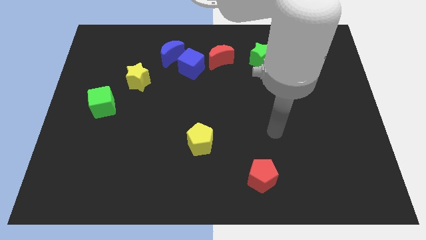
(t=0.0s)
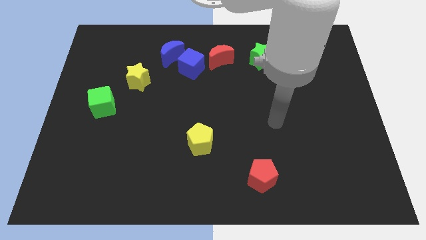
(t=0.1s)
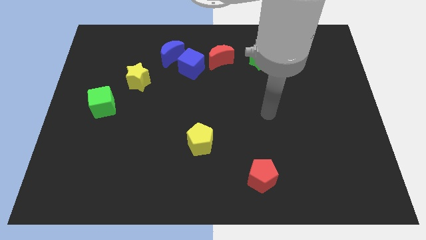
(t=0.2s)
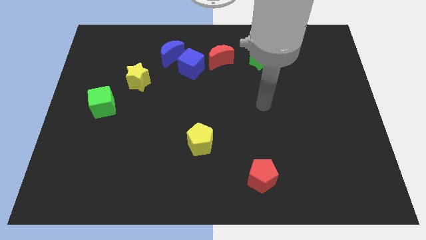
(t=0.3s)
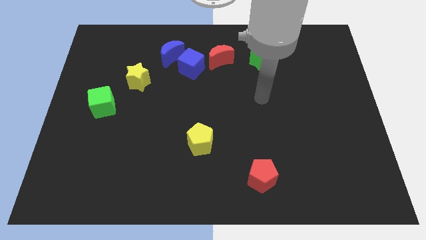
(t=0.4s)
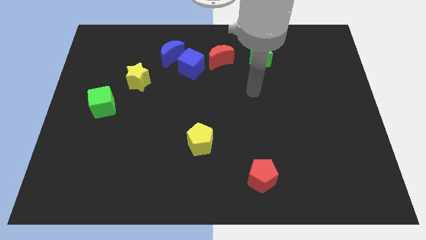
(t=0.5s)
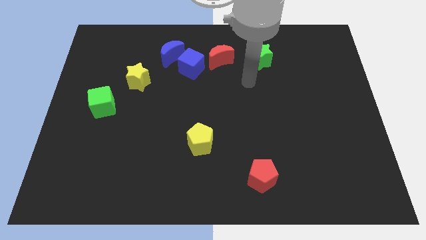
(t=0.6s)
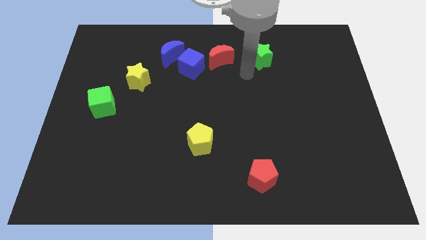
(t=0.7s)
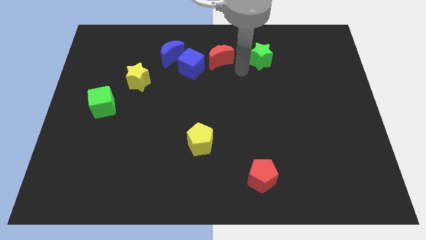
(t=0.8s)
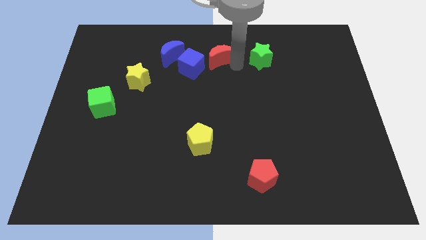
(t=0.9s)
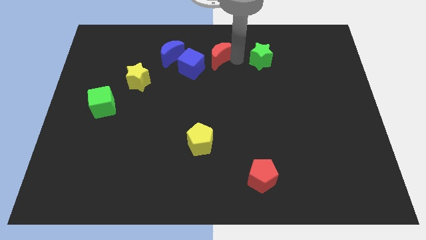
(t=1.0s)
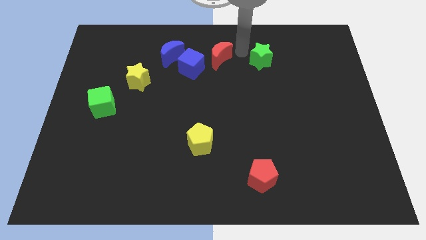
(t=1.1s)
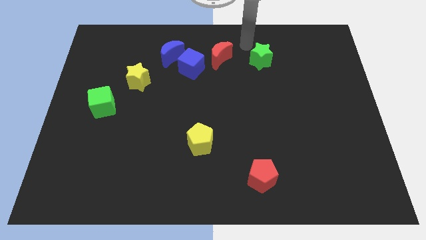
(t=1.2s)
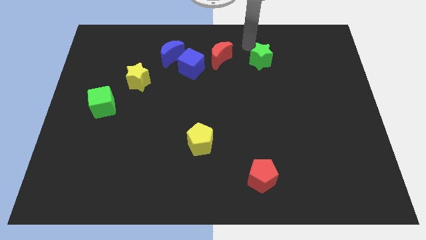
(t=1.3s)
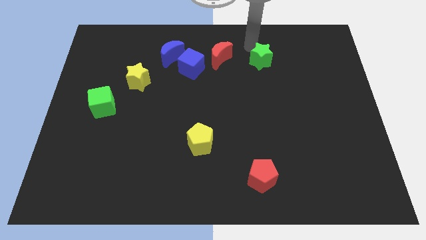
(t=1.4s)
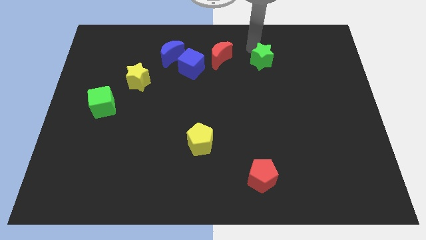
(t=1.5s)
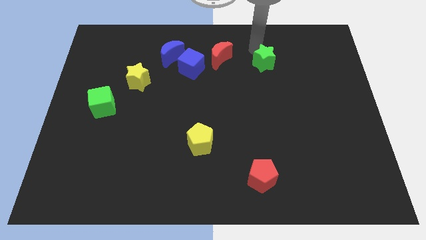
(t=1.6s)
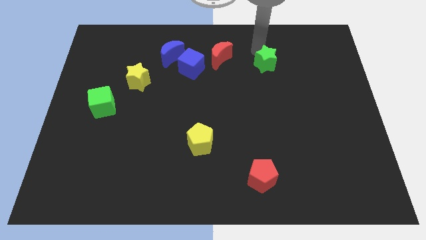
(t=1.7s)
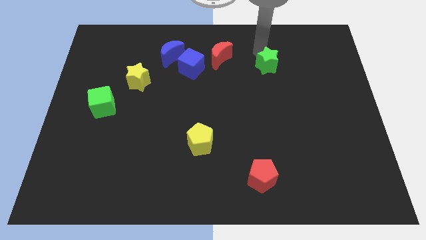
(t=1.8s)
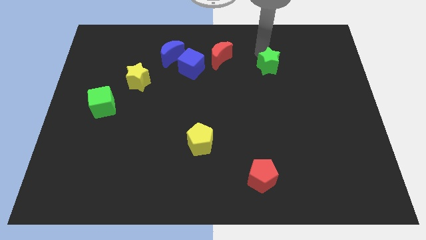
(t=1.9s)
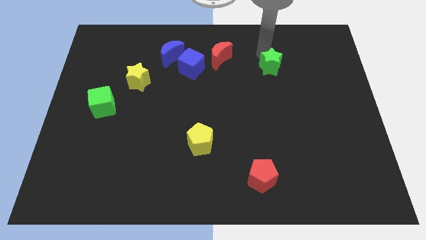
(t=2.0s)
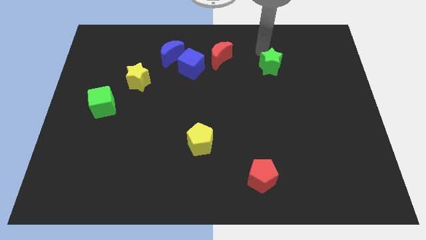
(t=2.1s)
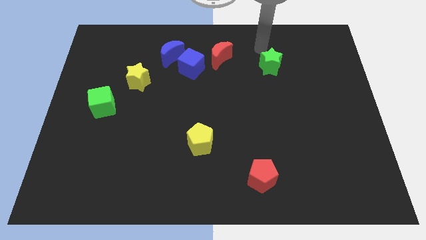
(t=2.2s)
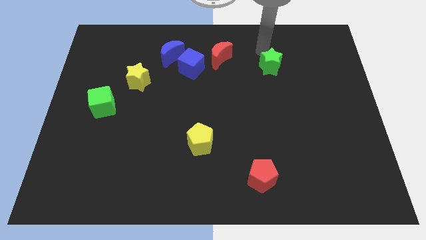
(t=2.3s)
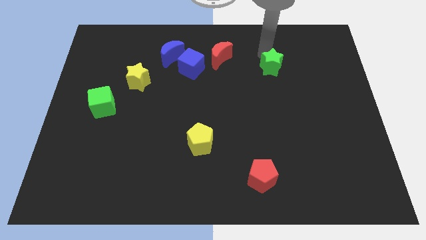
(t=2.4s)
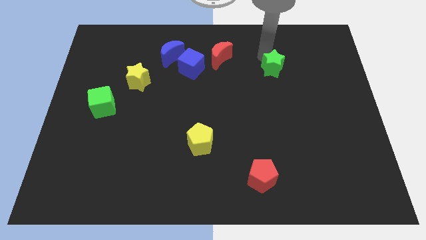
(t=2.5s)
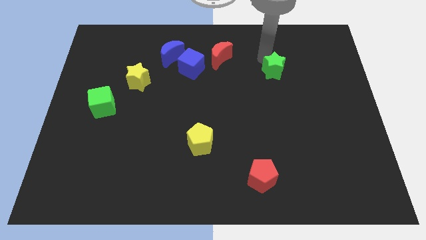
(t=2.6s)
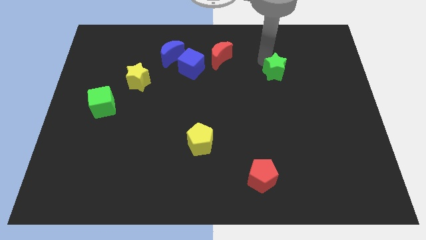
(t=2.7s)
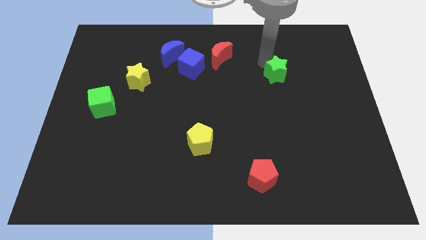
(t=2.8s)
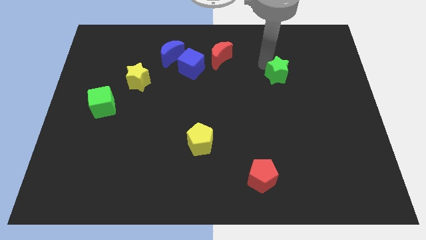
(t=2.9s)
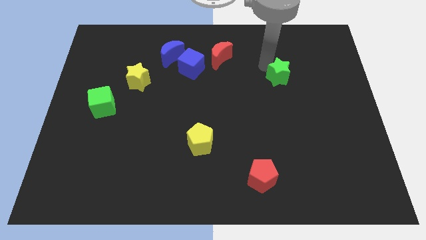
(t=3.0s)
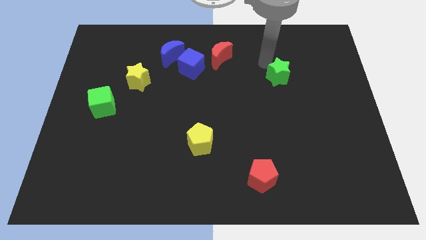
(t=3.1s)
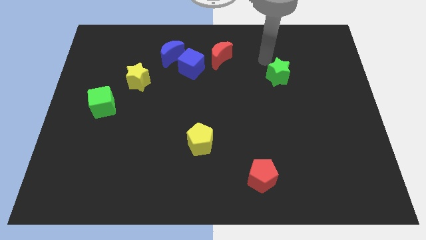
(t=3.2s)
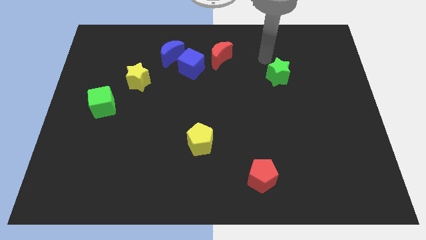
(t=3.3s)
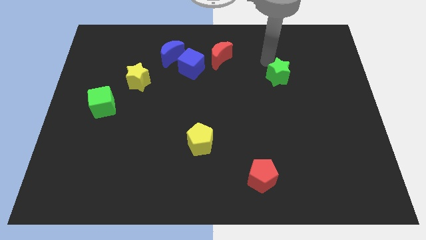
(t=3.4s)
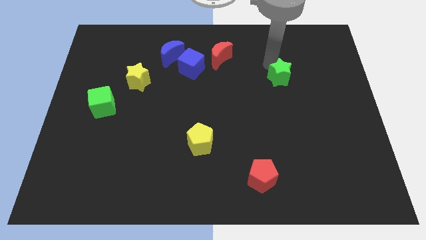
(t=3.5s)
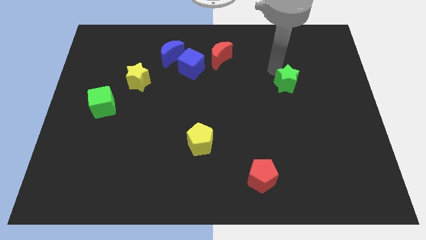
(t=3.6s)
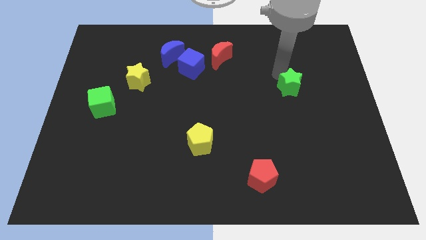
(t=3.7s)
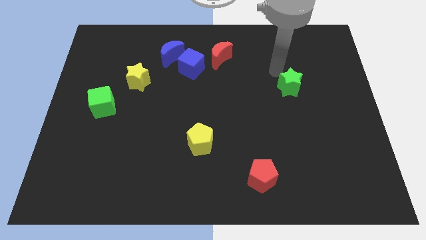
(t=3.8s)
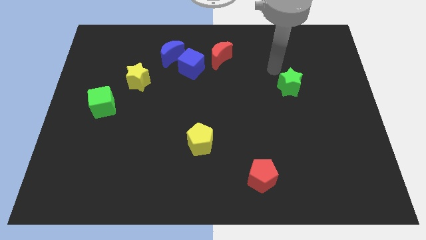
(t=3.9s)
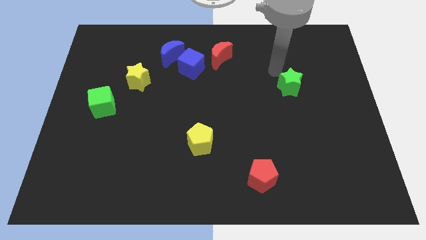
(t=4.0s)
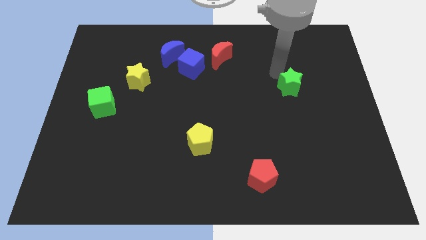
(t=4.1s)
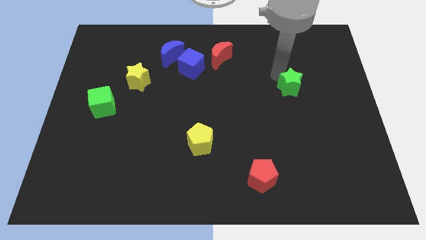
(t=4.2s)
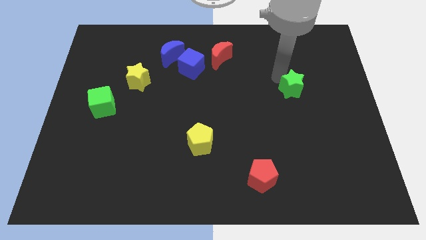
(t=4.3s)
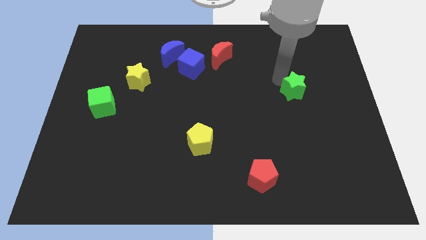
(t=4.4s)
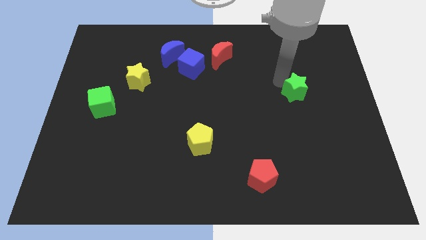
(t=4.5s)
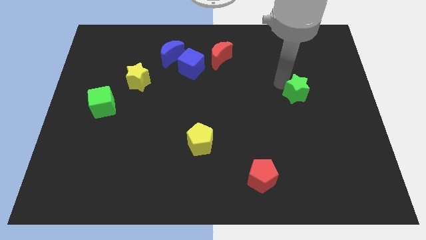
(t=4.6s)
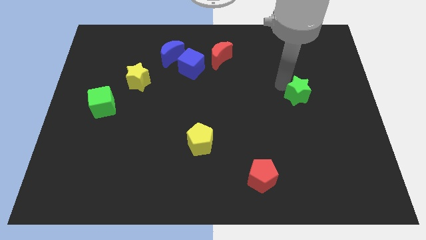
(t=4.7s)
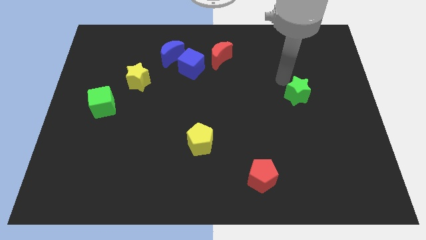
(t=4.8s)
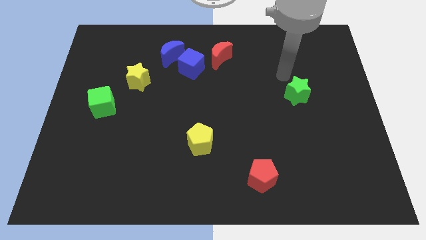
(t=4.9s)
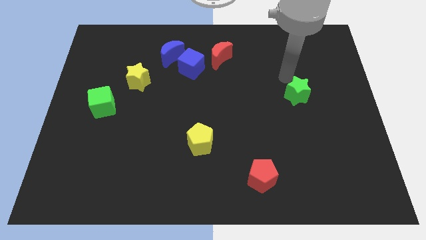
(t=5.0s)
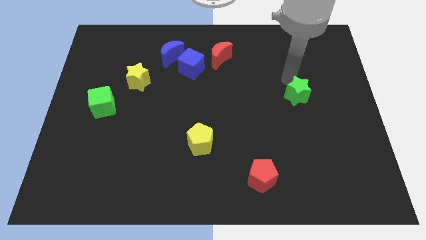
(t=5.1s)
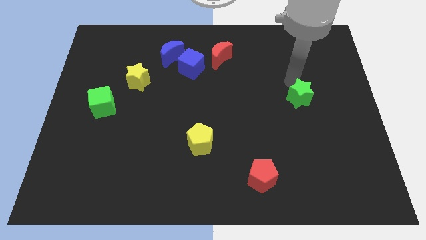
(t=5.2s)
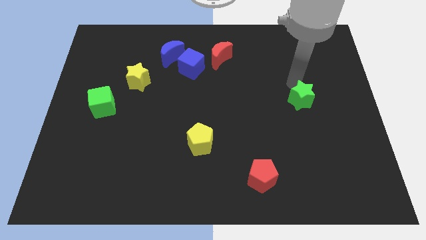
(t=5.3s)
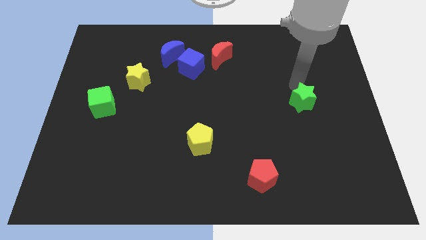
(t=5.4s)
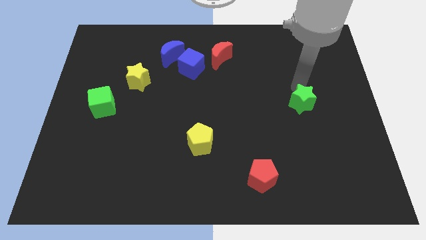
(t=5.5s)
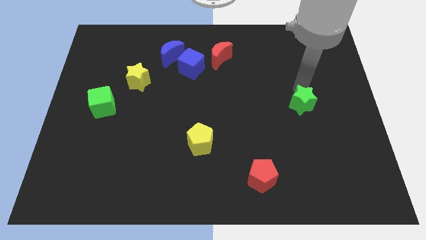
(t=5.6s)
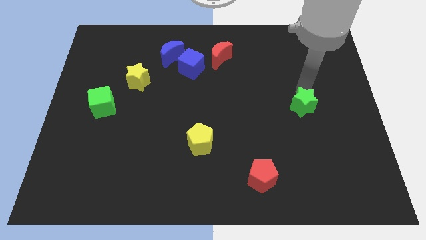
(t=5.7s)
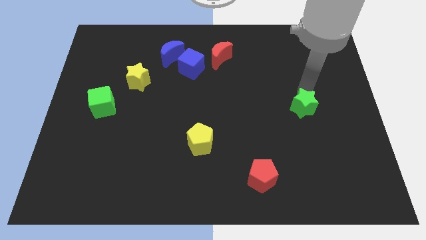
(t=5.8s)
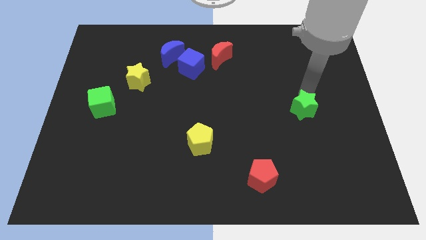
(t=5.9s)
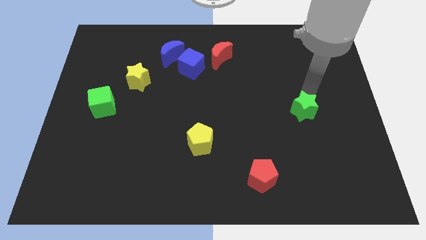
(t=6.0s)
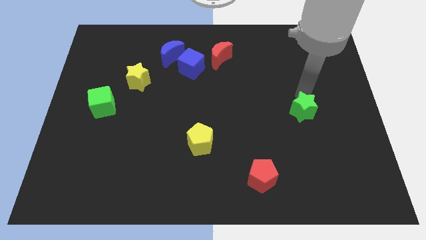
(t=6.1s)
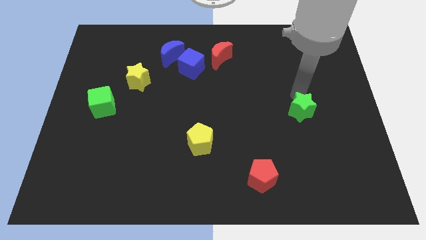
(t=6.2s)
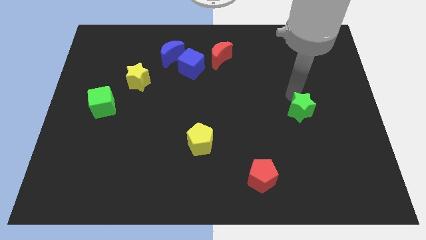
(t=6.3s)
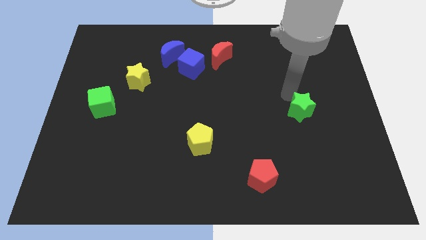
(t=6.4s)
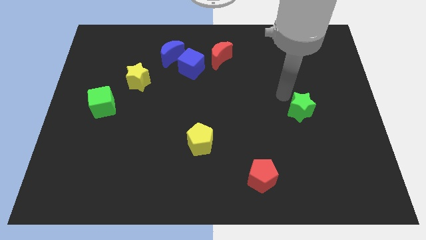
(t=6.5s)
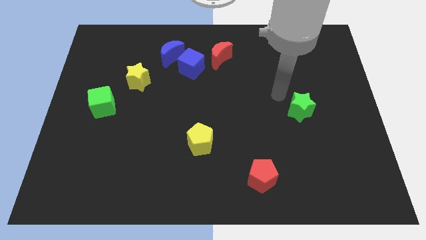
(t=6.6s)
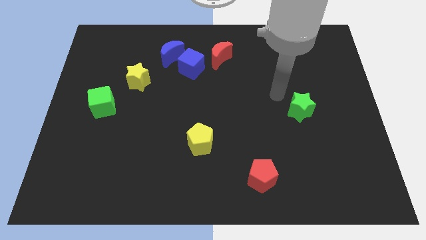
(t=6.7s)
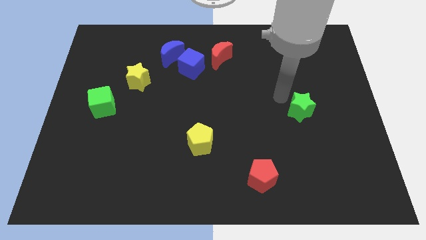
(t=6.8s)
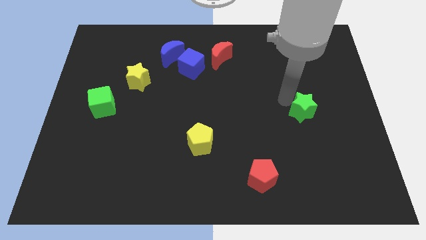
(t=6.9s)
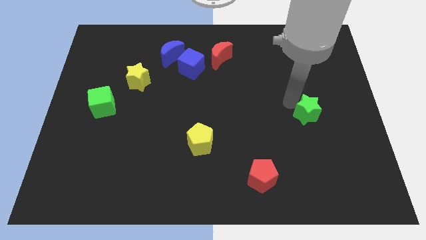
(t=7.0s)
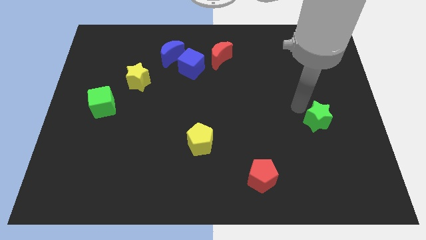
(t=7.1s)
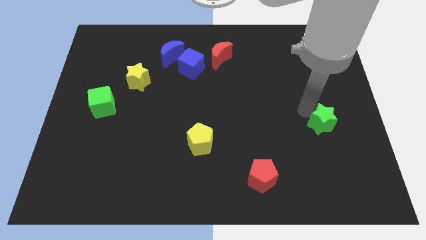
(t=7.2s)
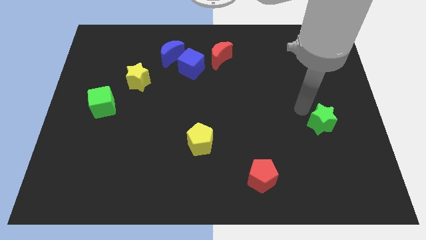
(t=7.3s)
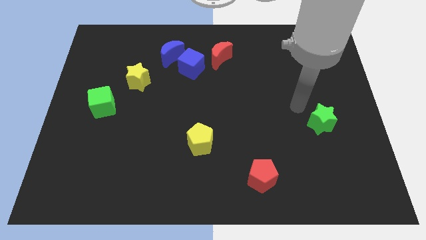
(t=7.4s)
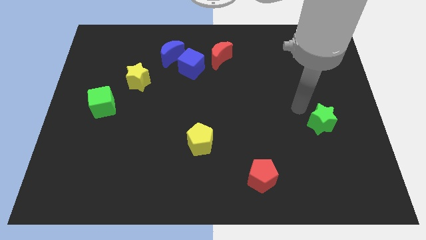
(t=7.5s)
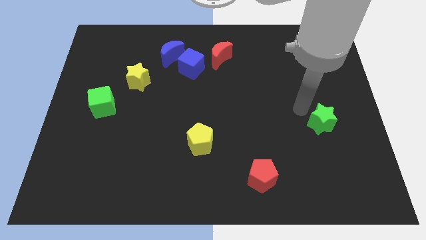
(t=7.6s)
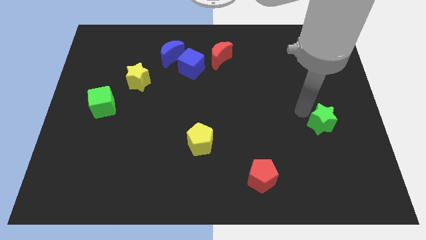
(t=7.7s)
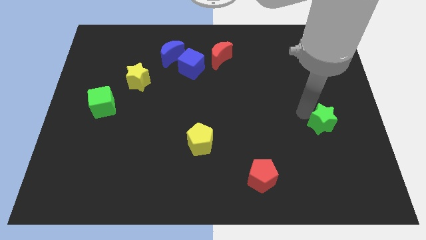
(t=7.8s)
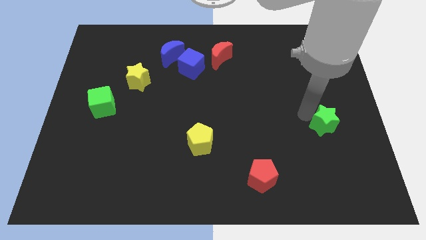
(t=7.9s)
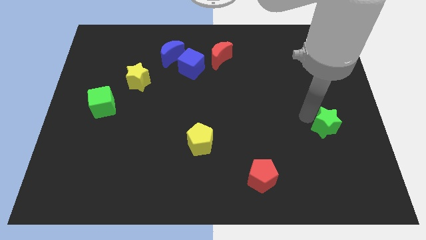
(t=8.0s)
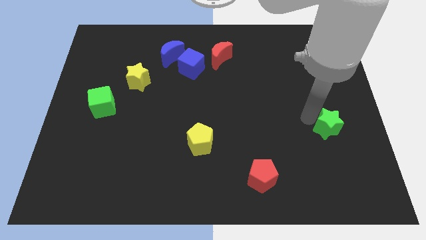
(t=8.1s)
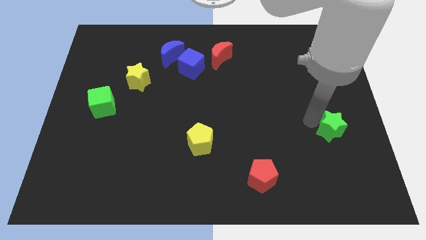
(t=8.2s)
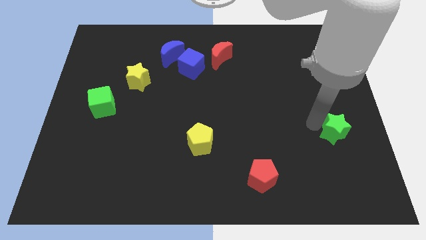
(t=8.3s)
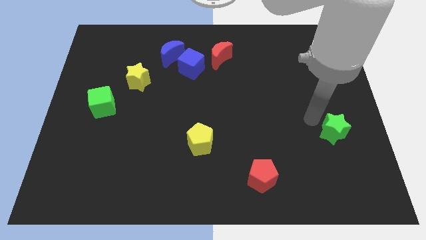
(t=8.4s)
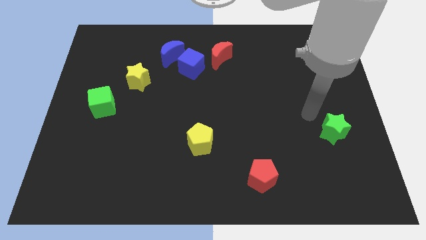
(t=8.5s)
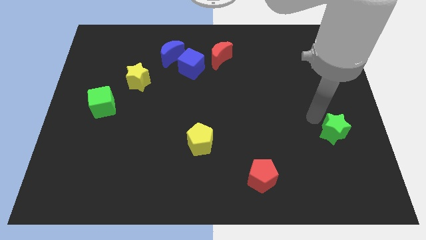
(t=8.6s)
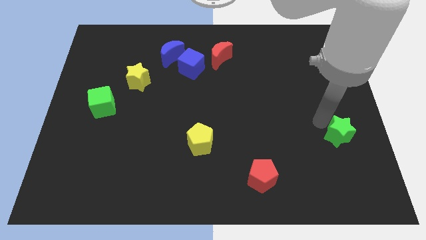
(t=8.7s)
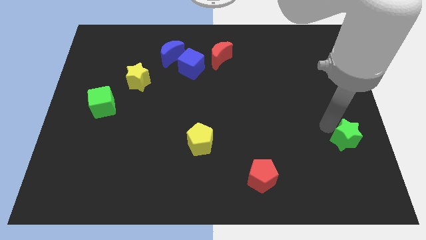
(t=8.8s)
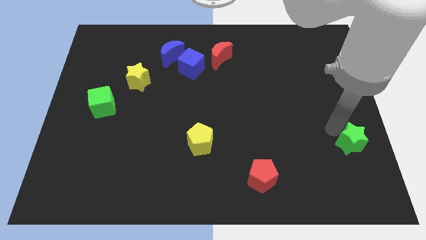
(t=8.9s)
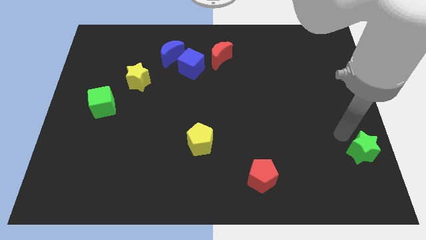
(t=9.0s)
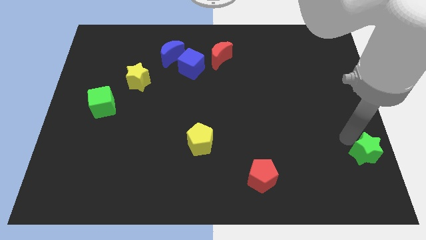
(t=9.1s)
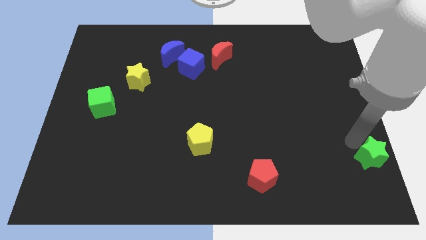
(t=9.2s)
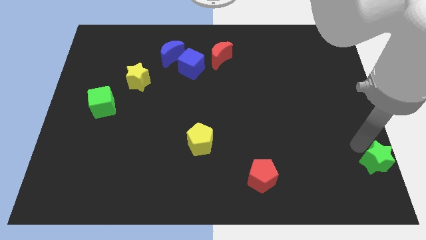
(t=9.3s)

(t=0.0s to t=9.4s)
push the green star to the lower right corner
